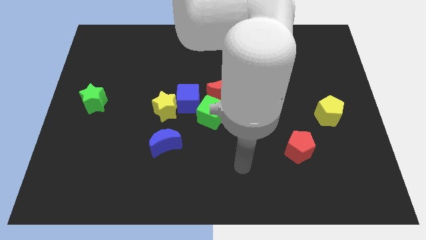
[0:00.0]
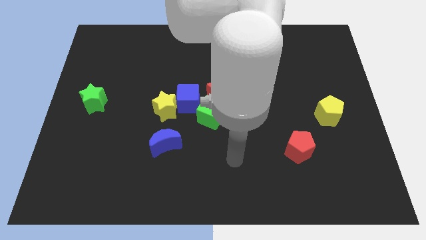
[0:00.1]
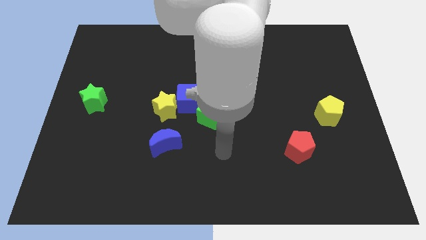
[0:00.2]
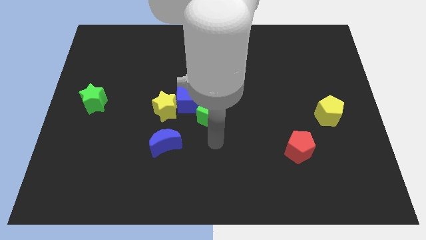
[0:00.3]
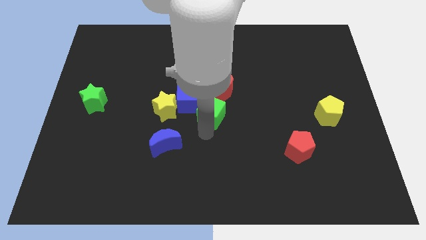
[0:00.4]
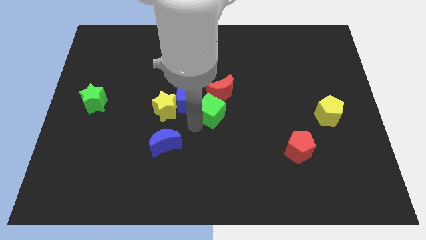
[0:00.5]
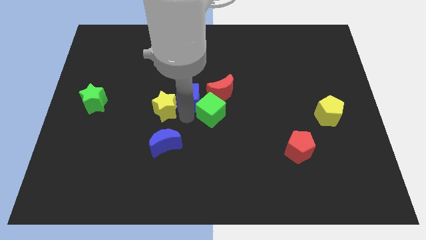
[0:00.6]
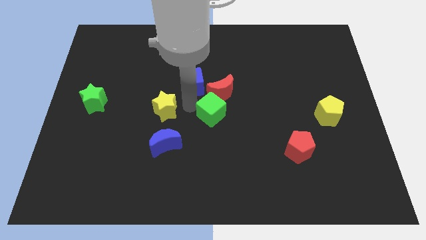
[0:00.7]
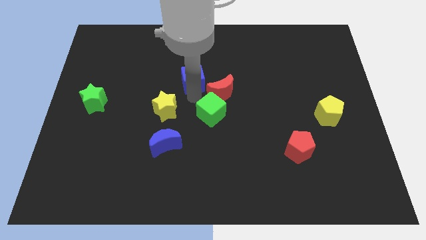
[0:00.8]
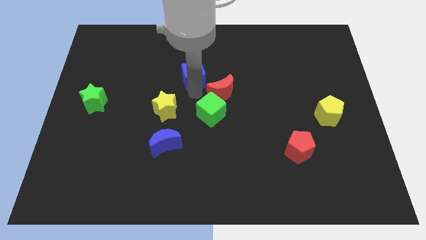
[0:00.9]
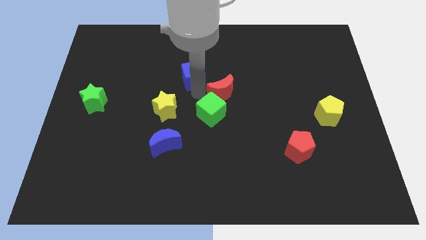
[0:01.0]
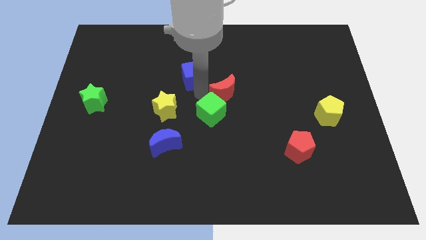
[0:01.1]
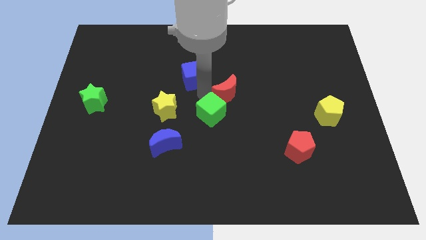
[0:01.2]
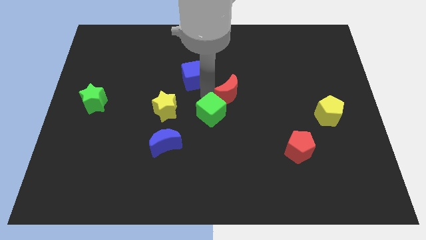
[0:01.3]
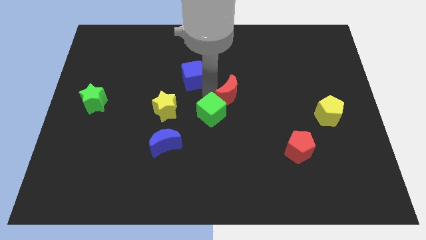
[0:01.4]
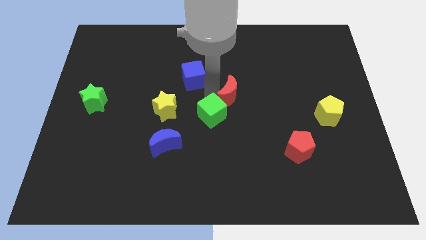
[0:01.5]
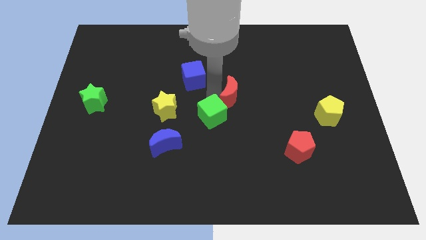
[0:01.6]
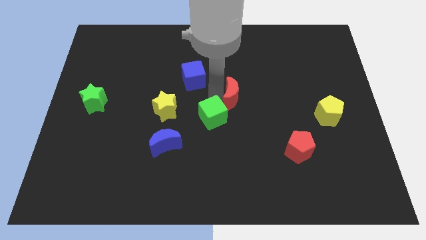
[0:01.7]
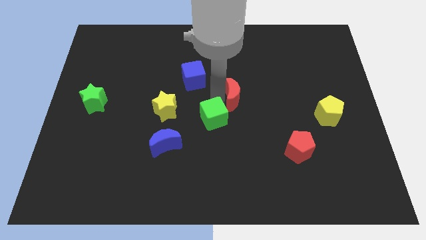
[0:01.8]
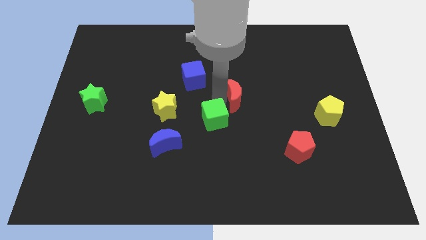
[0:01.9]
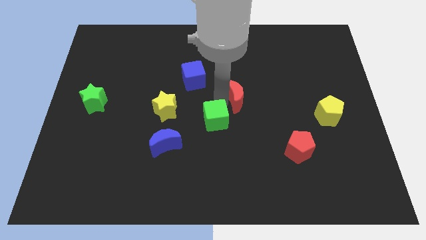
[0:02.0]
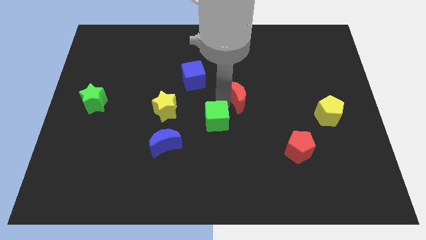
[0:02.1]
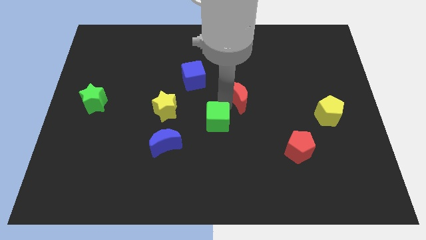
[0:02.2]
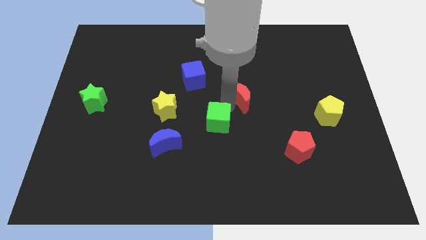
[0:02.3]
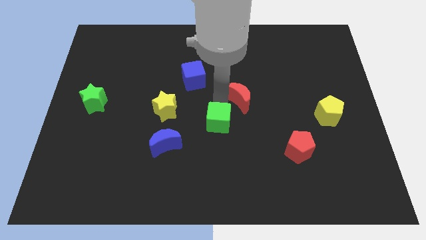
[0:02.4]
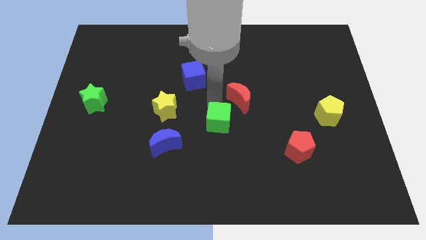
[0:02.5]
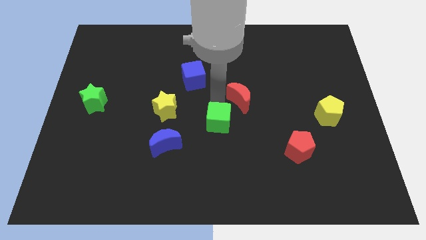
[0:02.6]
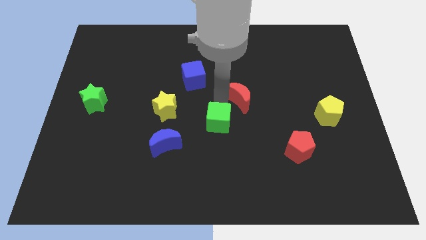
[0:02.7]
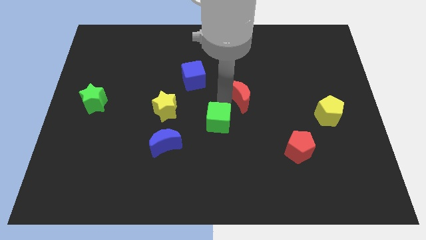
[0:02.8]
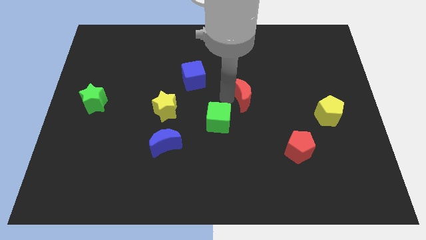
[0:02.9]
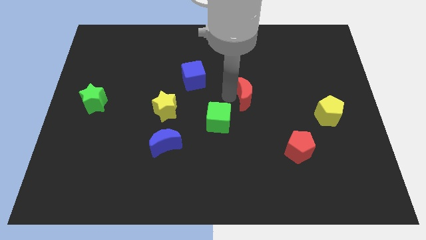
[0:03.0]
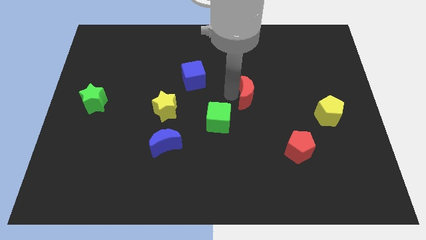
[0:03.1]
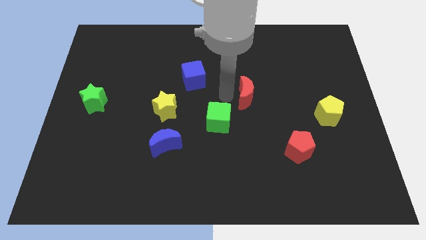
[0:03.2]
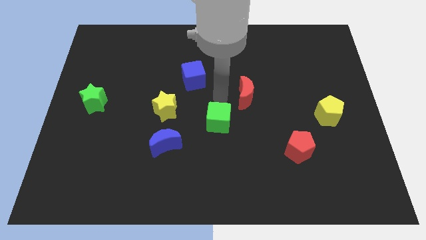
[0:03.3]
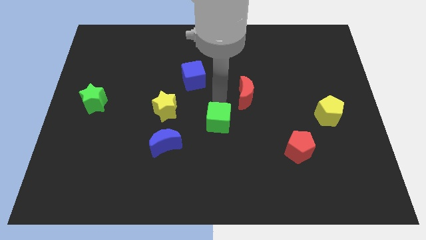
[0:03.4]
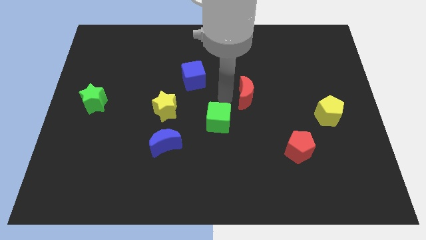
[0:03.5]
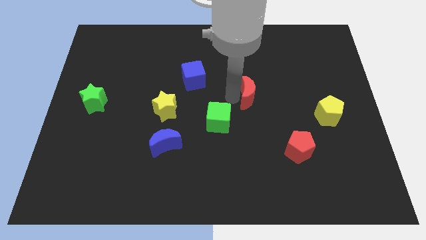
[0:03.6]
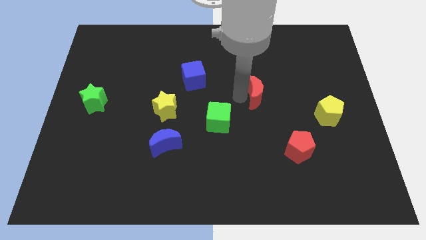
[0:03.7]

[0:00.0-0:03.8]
slightly move the red moon to the right

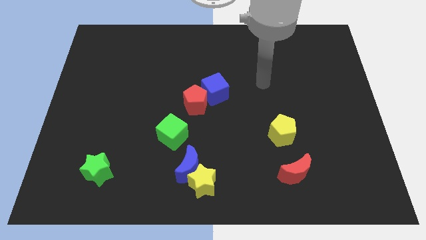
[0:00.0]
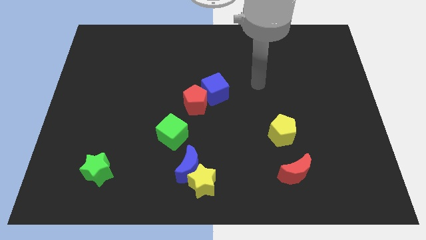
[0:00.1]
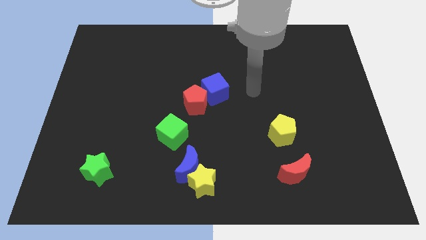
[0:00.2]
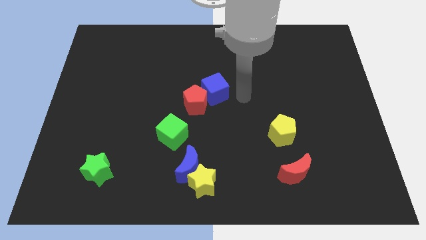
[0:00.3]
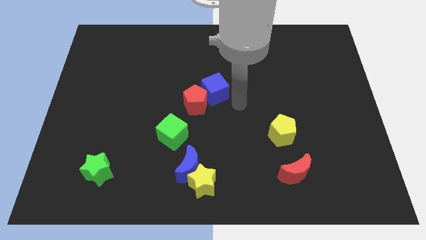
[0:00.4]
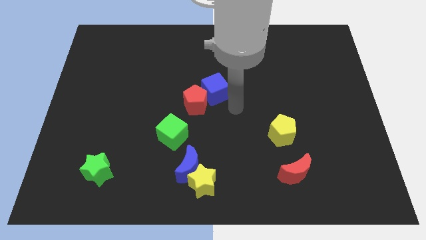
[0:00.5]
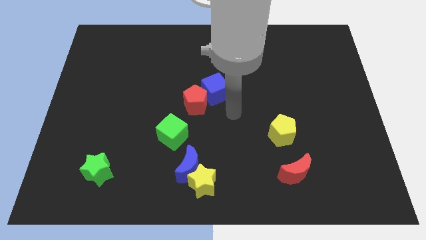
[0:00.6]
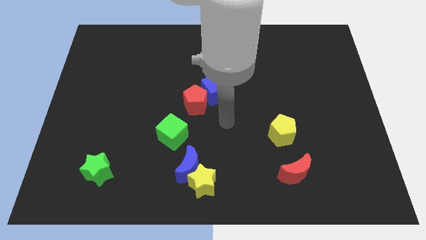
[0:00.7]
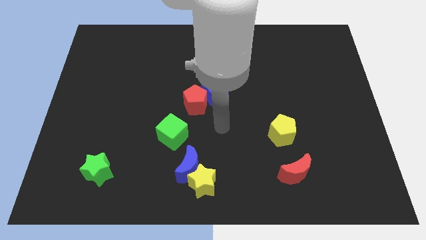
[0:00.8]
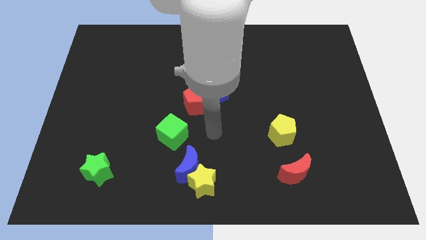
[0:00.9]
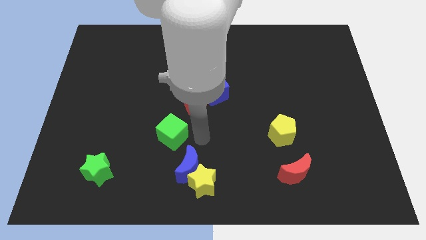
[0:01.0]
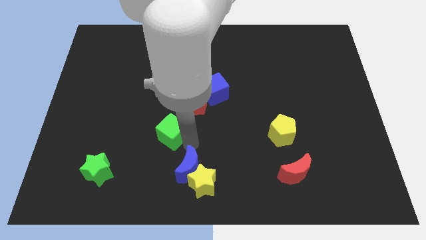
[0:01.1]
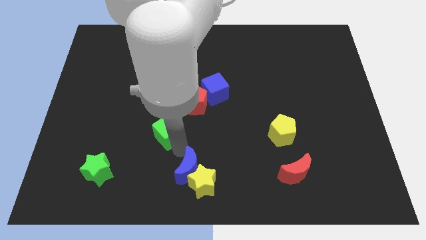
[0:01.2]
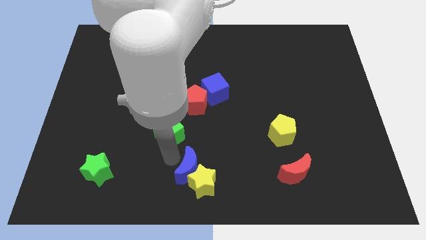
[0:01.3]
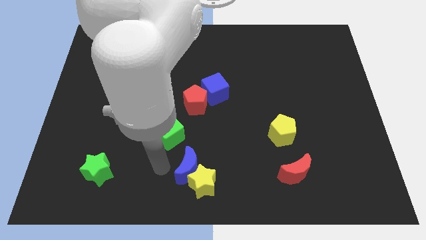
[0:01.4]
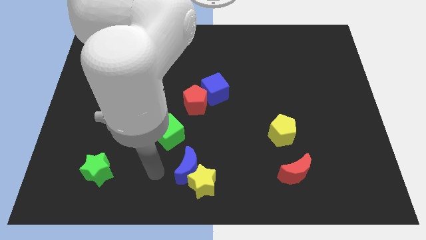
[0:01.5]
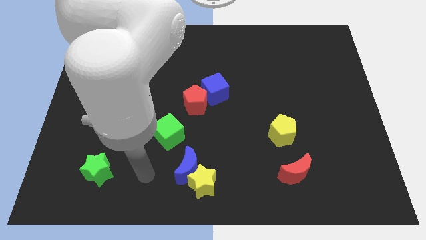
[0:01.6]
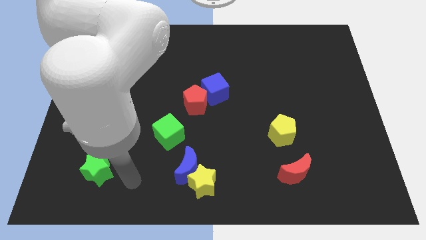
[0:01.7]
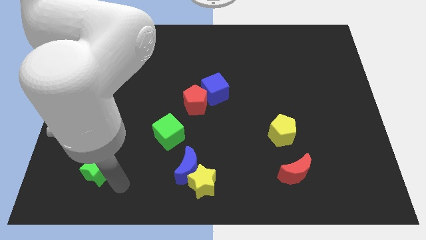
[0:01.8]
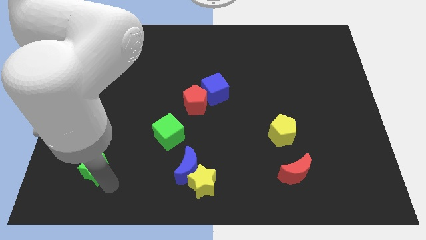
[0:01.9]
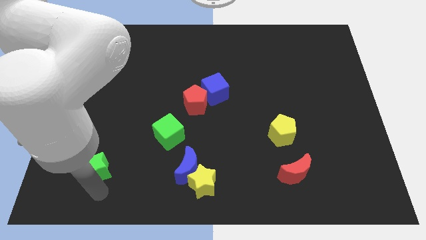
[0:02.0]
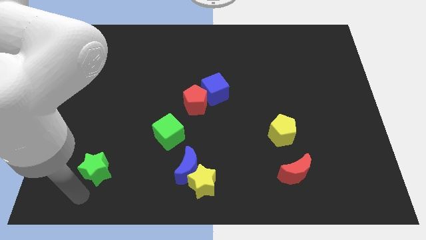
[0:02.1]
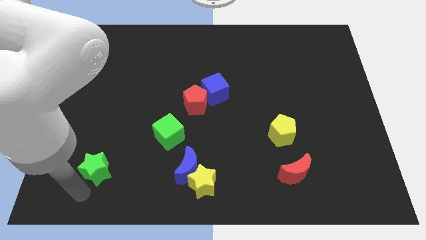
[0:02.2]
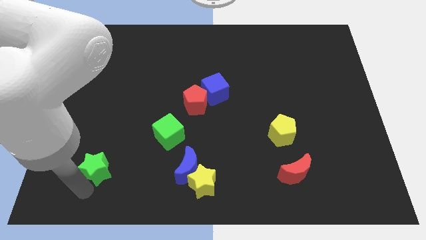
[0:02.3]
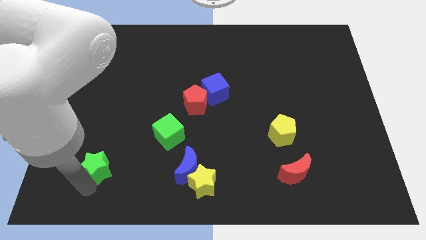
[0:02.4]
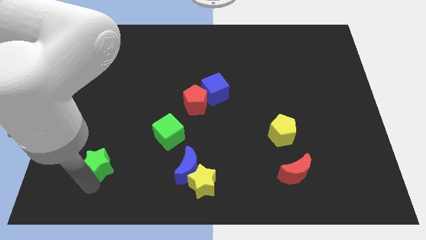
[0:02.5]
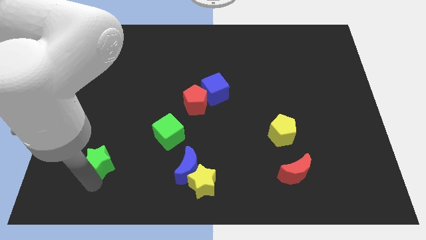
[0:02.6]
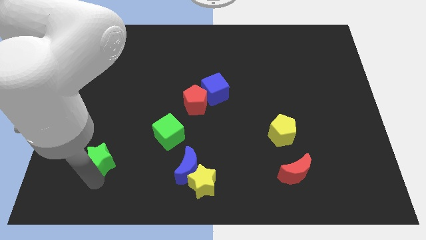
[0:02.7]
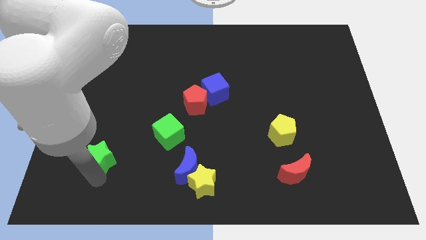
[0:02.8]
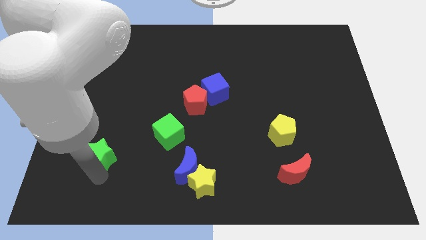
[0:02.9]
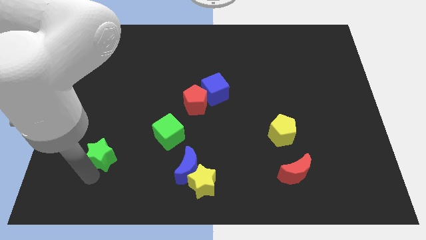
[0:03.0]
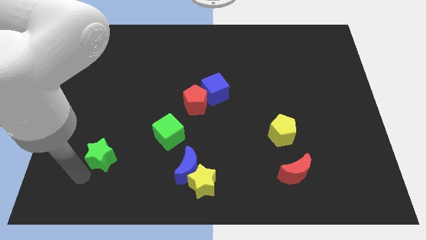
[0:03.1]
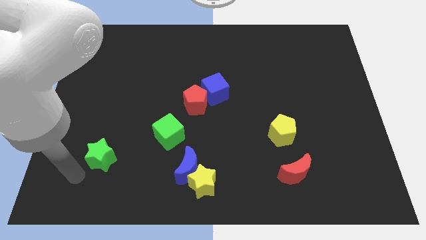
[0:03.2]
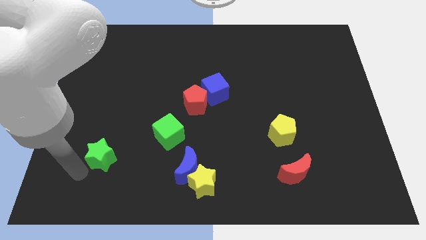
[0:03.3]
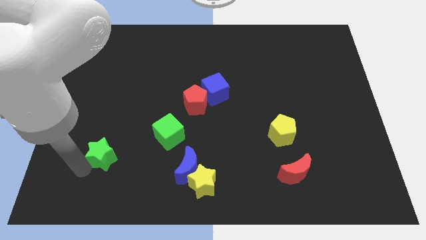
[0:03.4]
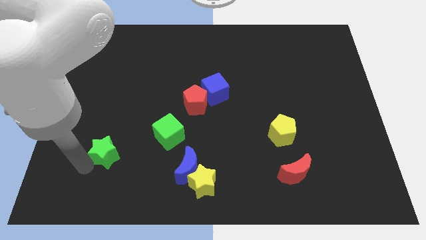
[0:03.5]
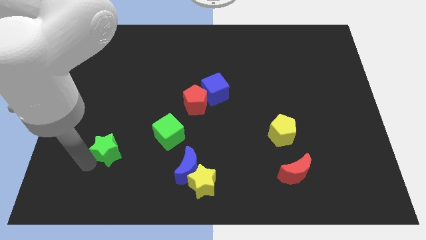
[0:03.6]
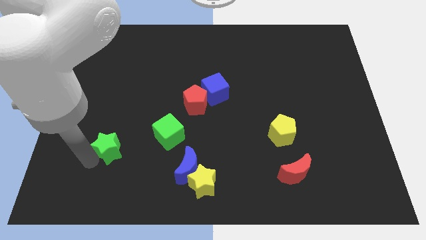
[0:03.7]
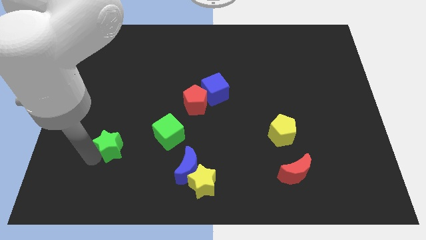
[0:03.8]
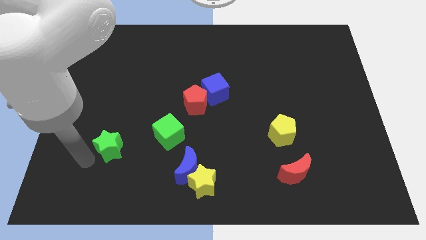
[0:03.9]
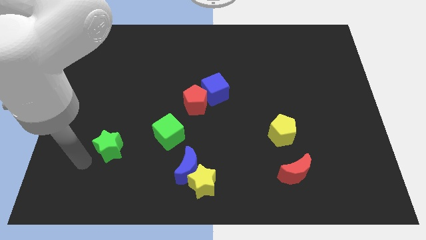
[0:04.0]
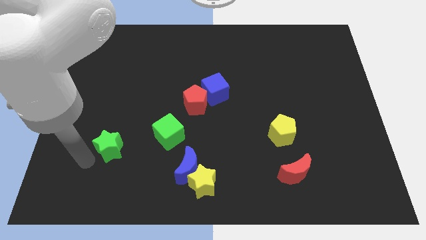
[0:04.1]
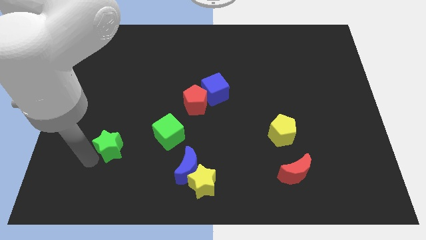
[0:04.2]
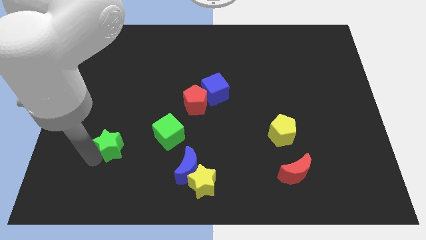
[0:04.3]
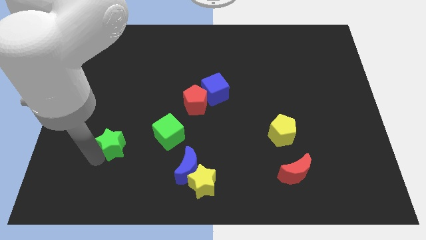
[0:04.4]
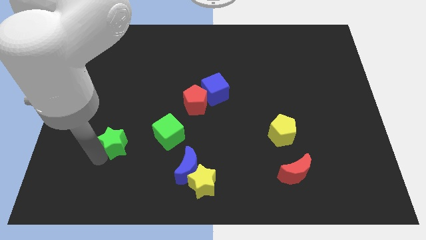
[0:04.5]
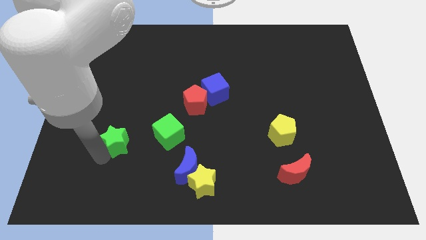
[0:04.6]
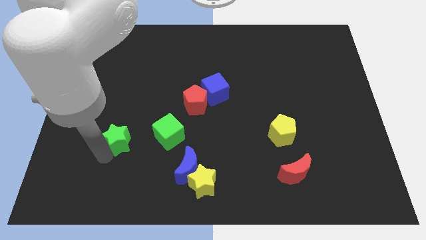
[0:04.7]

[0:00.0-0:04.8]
slightly move the green star upwards and right diagonally
